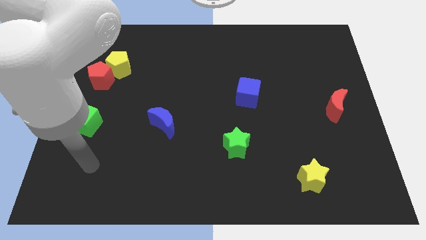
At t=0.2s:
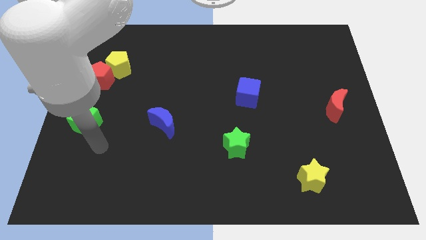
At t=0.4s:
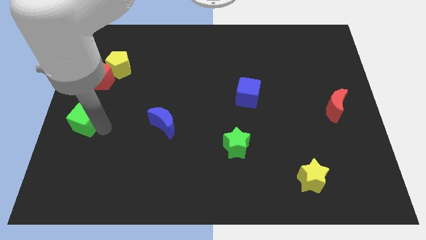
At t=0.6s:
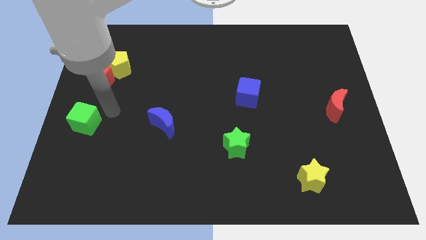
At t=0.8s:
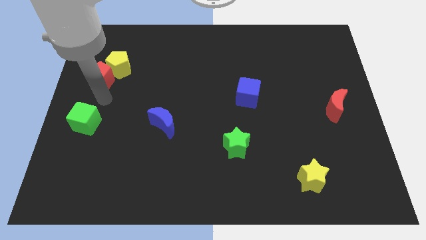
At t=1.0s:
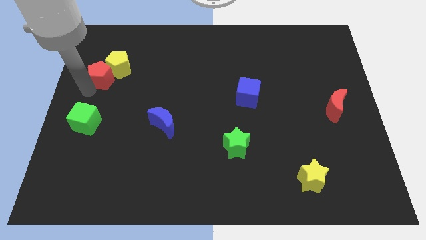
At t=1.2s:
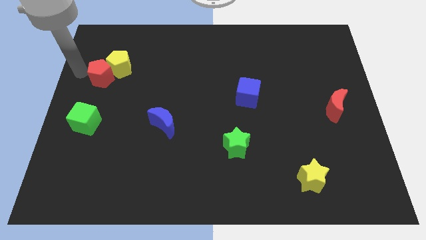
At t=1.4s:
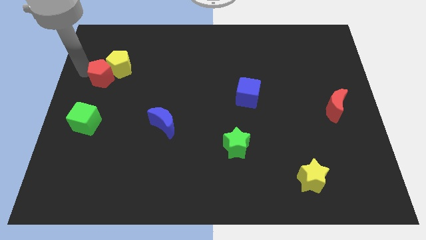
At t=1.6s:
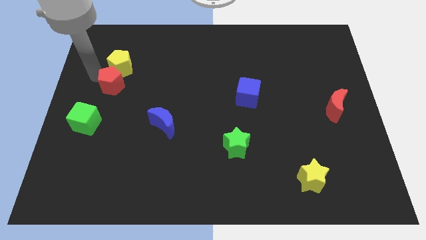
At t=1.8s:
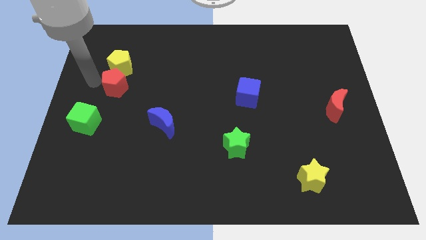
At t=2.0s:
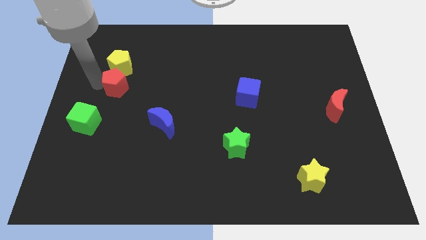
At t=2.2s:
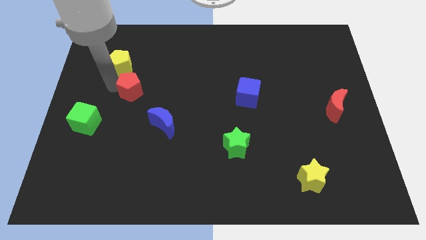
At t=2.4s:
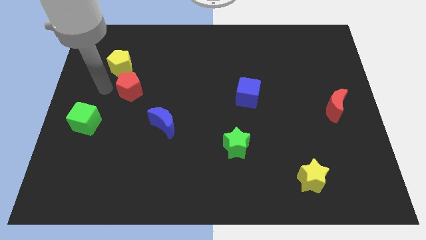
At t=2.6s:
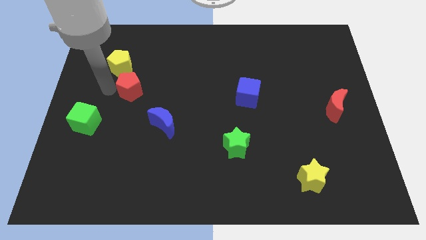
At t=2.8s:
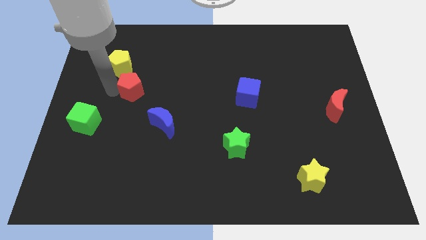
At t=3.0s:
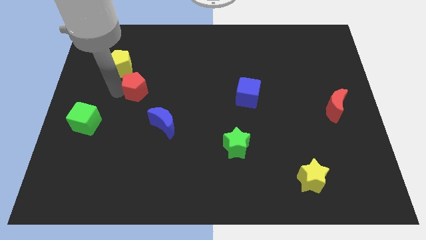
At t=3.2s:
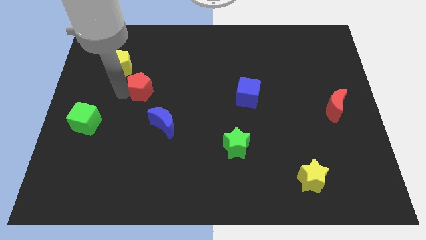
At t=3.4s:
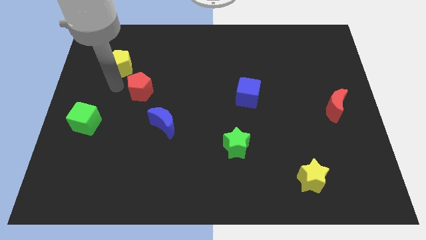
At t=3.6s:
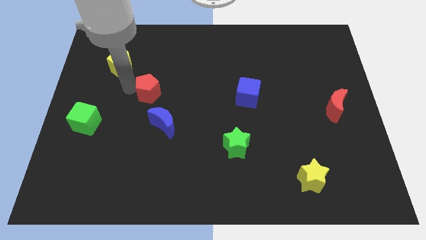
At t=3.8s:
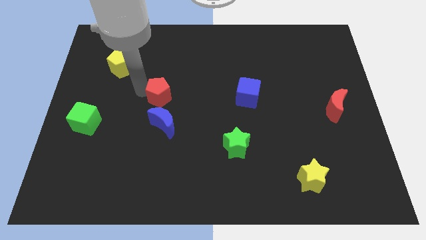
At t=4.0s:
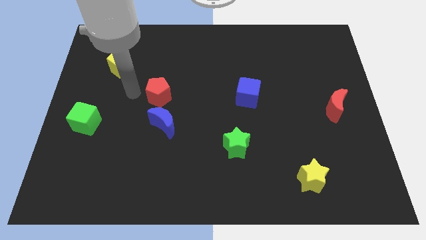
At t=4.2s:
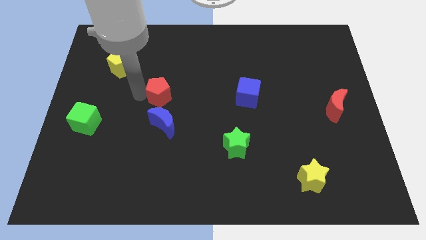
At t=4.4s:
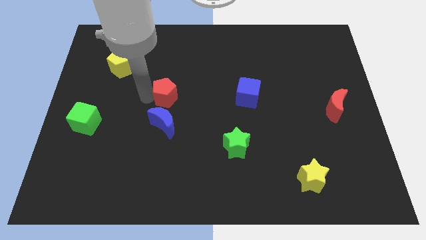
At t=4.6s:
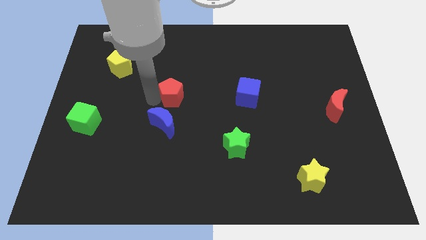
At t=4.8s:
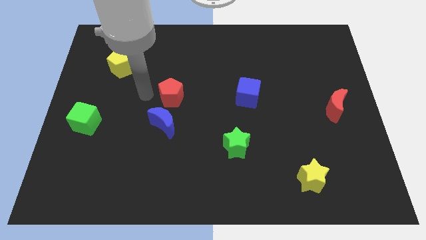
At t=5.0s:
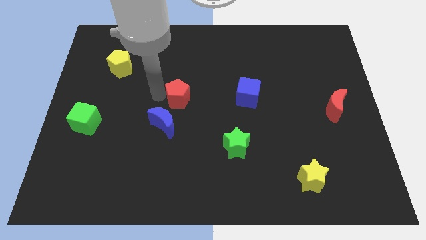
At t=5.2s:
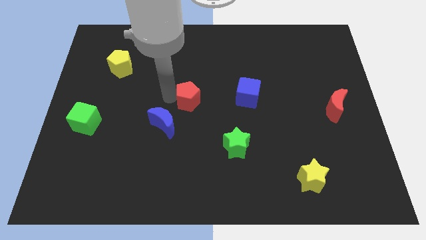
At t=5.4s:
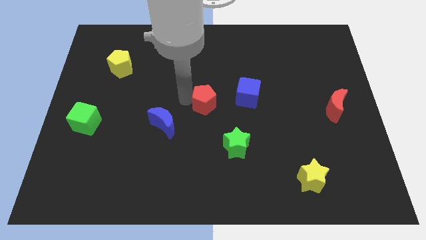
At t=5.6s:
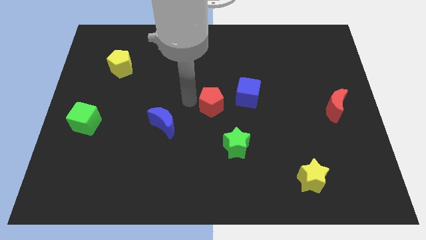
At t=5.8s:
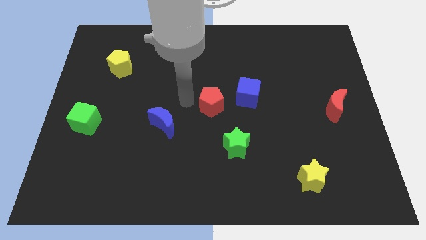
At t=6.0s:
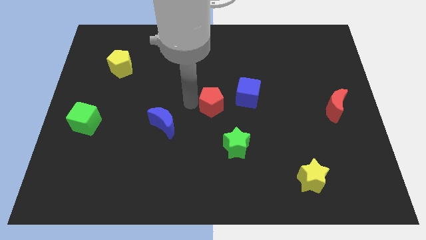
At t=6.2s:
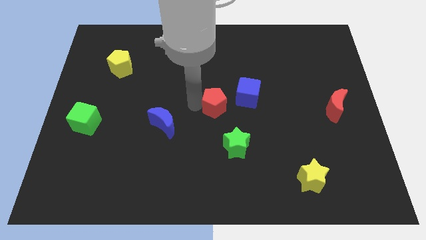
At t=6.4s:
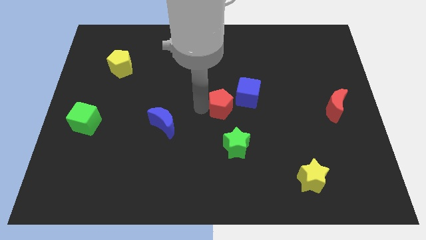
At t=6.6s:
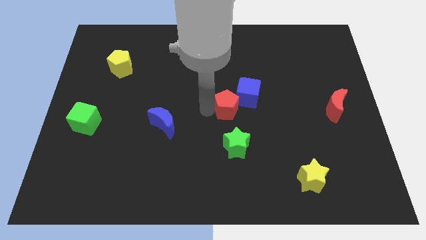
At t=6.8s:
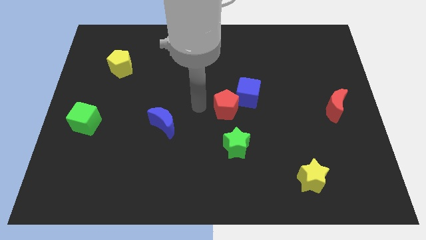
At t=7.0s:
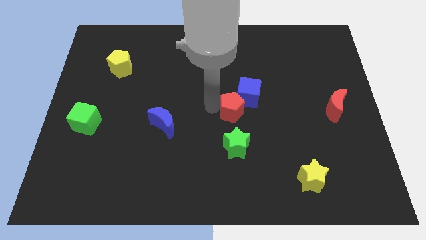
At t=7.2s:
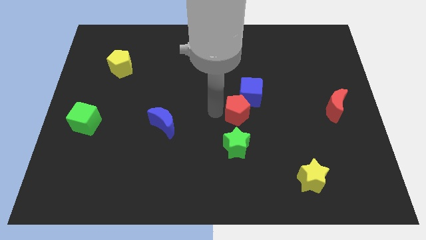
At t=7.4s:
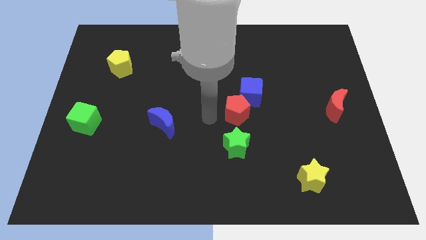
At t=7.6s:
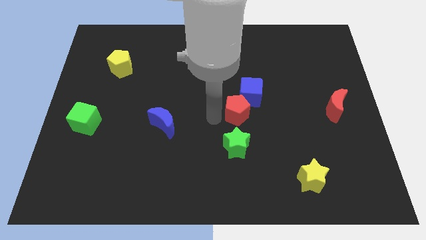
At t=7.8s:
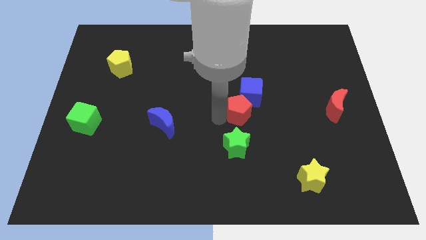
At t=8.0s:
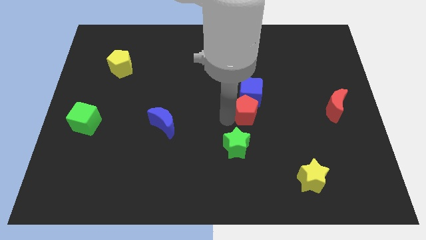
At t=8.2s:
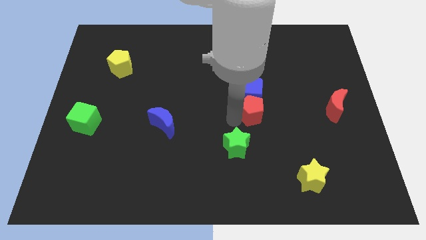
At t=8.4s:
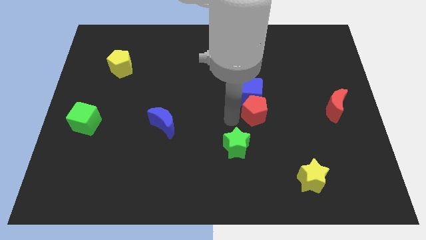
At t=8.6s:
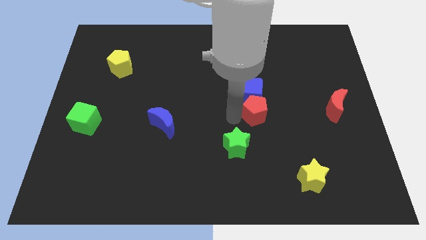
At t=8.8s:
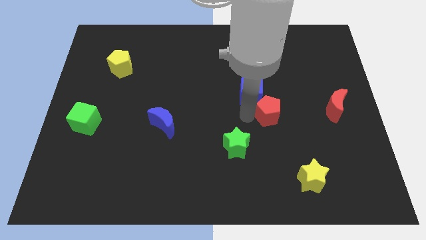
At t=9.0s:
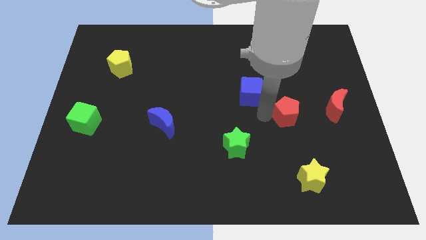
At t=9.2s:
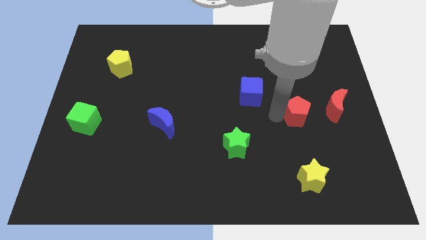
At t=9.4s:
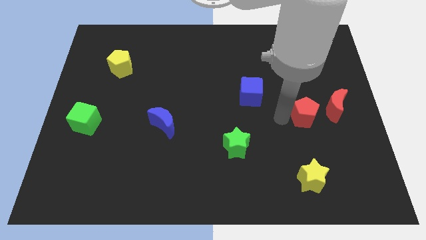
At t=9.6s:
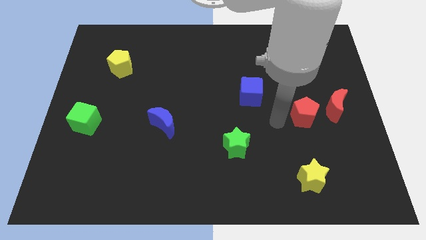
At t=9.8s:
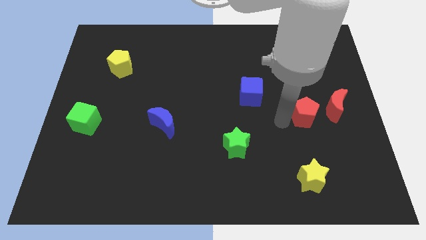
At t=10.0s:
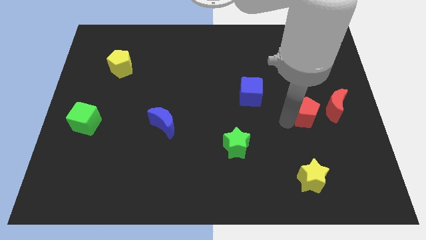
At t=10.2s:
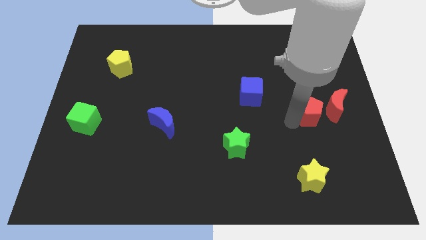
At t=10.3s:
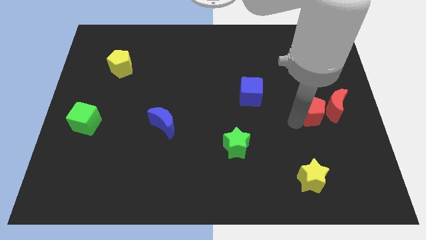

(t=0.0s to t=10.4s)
push the red pentagon towards the red moon

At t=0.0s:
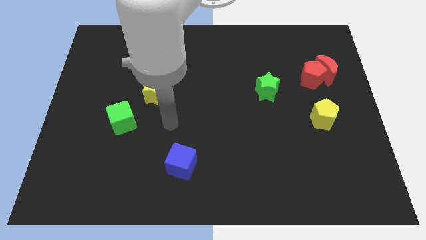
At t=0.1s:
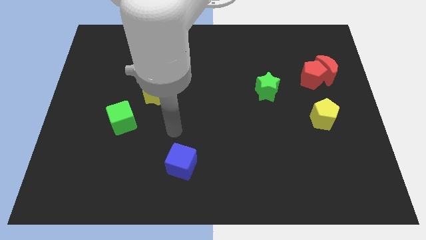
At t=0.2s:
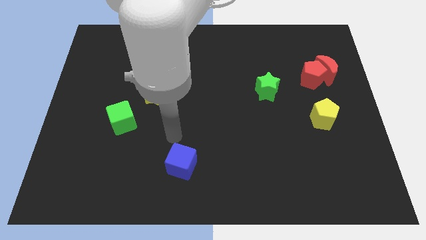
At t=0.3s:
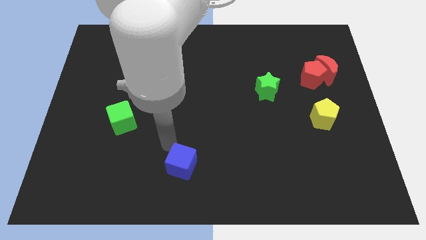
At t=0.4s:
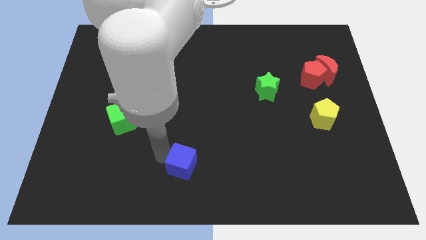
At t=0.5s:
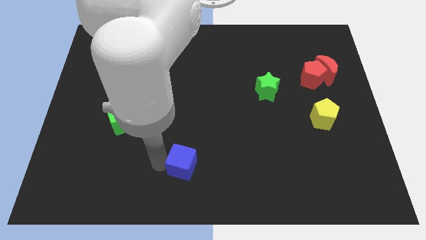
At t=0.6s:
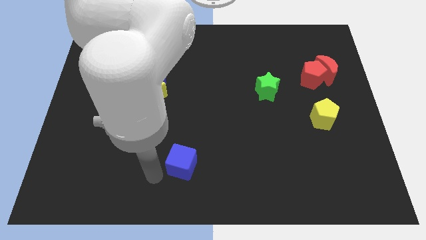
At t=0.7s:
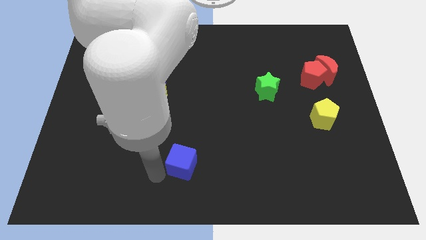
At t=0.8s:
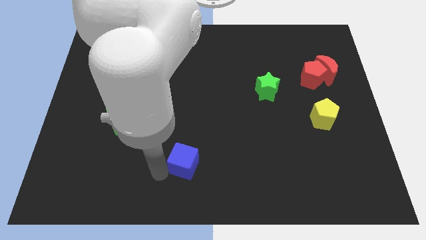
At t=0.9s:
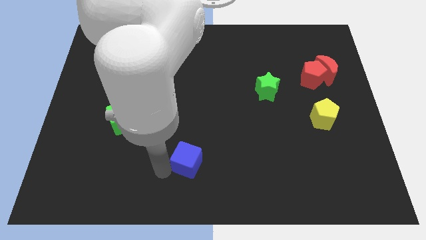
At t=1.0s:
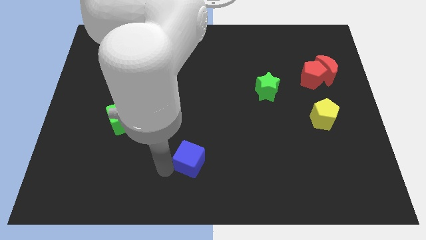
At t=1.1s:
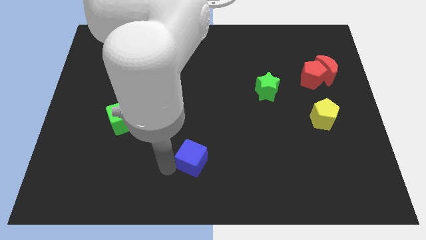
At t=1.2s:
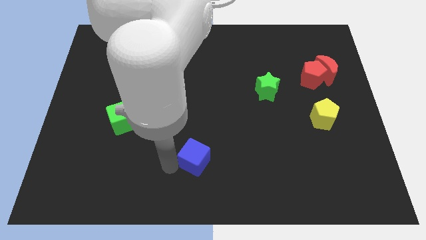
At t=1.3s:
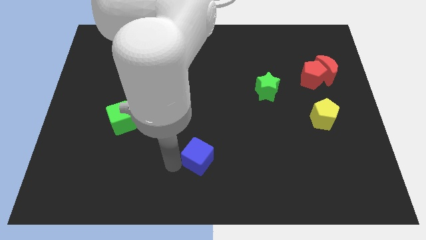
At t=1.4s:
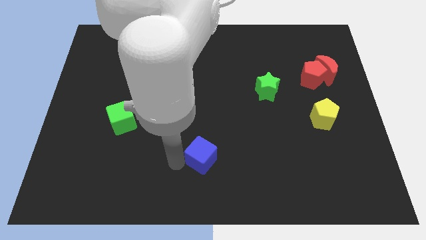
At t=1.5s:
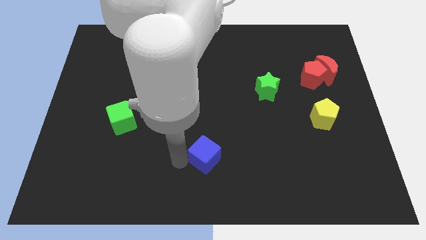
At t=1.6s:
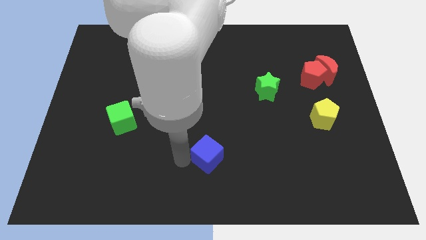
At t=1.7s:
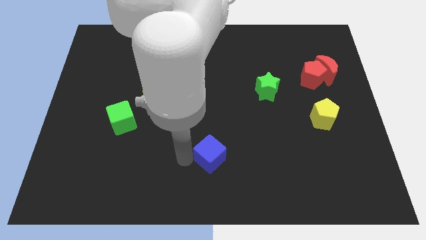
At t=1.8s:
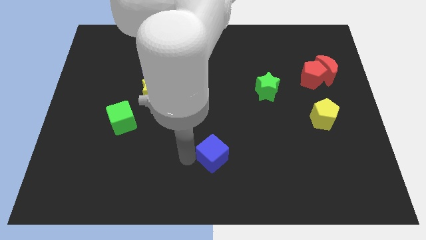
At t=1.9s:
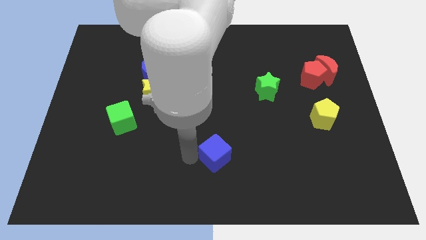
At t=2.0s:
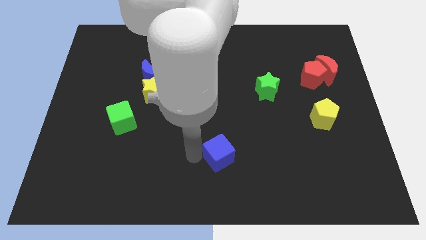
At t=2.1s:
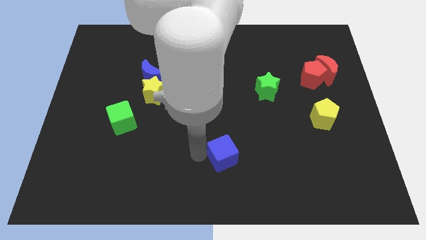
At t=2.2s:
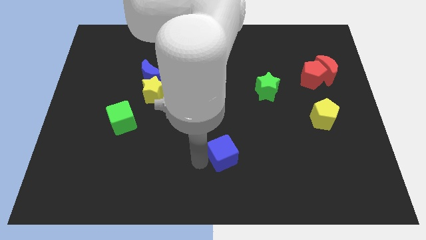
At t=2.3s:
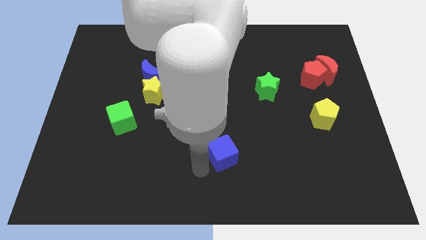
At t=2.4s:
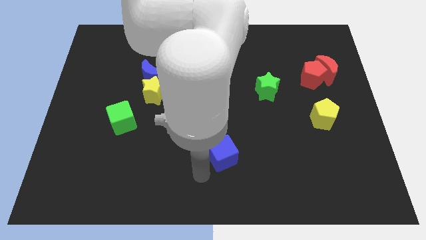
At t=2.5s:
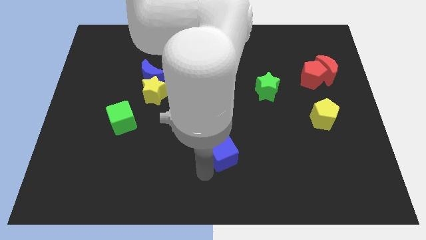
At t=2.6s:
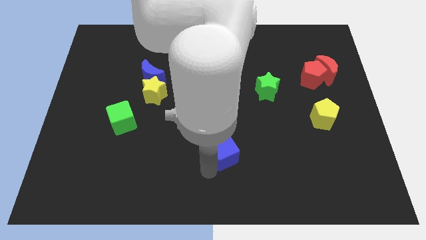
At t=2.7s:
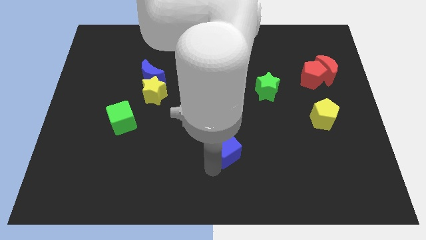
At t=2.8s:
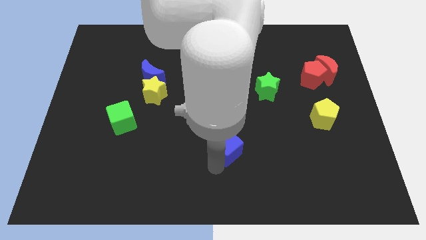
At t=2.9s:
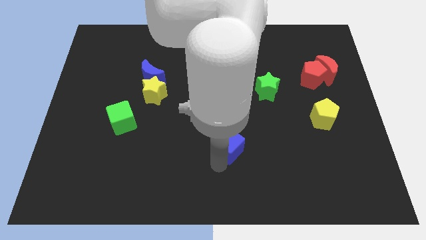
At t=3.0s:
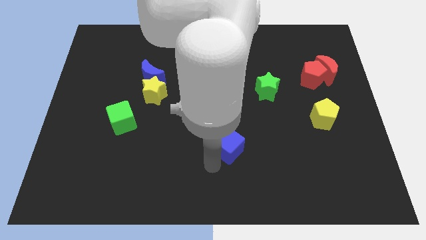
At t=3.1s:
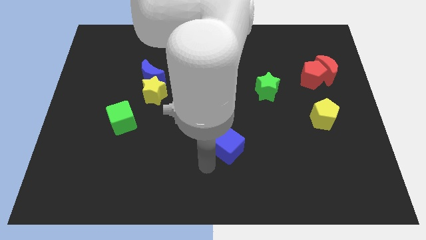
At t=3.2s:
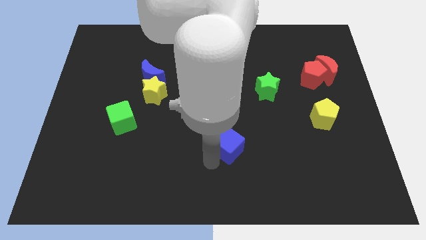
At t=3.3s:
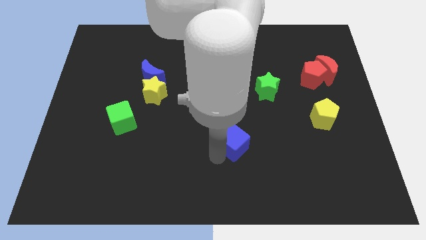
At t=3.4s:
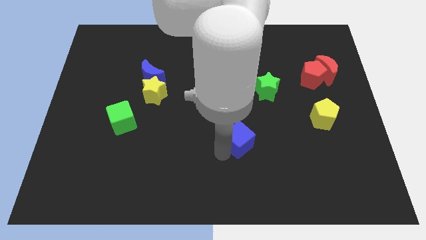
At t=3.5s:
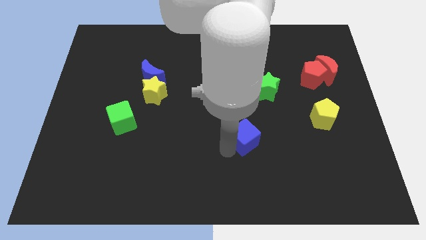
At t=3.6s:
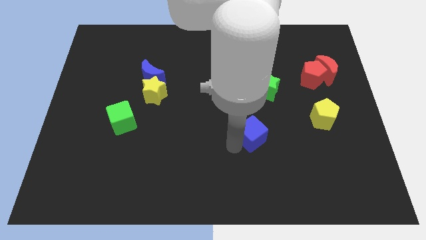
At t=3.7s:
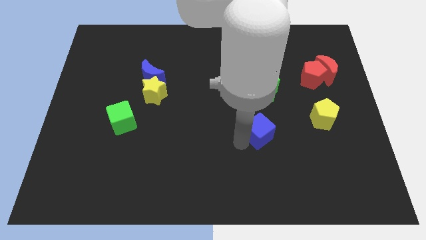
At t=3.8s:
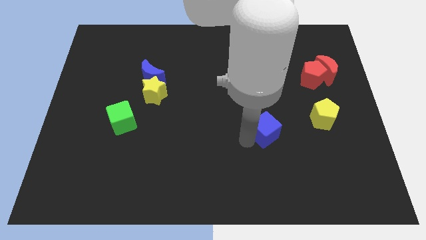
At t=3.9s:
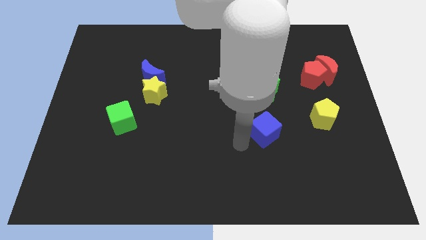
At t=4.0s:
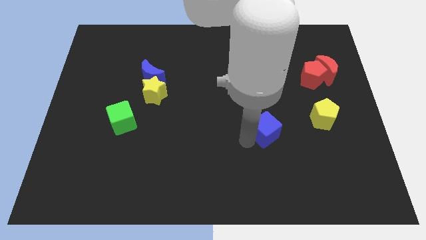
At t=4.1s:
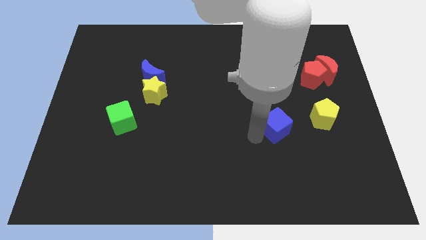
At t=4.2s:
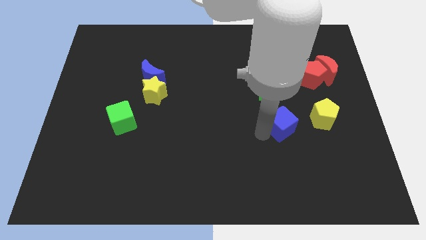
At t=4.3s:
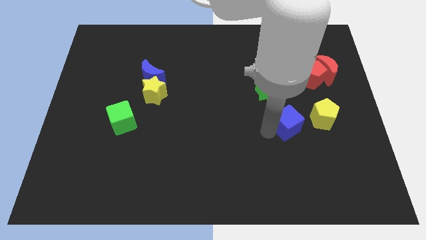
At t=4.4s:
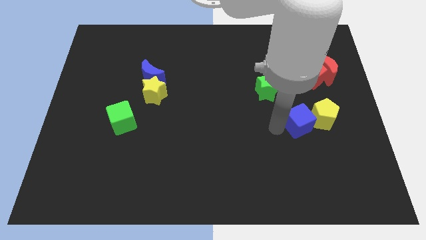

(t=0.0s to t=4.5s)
slide the blue cube to the yellow pentagon
